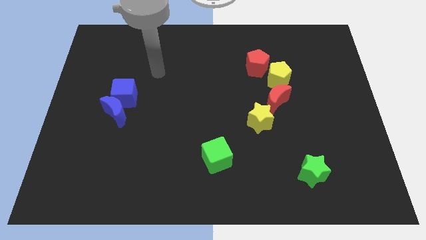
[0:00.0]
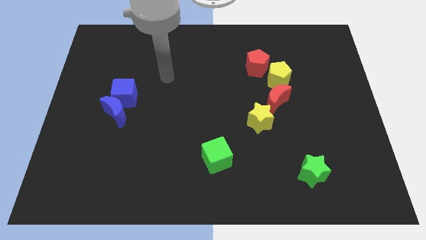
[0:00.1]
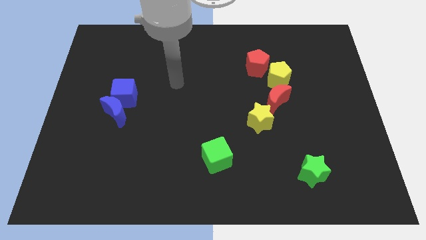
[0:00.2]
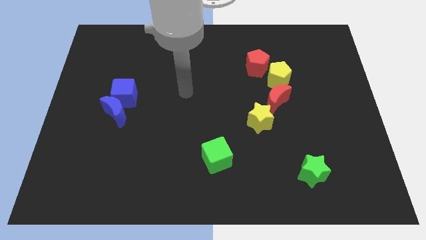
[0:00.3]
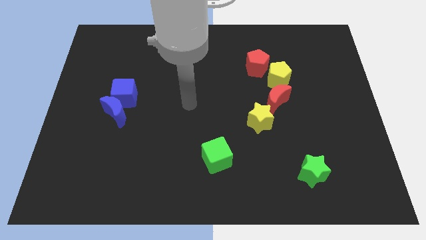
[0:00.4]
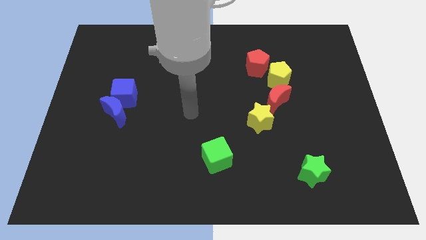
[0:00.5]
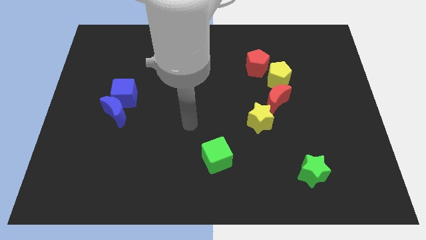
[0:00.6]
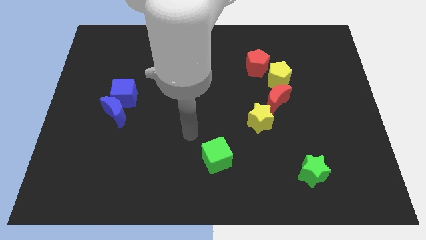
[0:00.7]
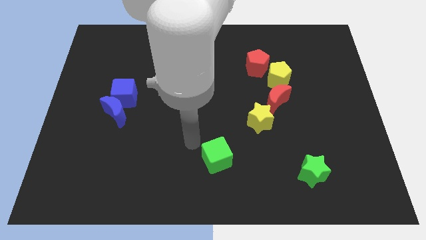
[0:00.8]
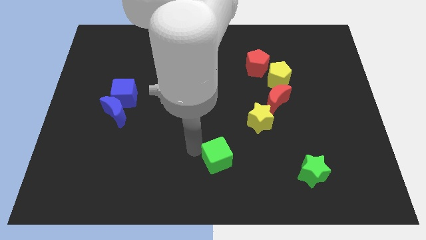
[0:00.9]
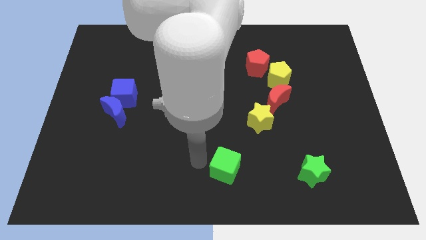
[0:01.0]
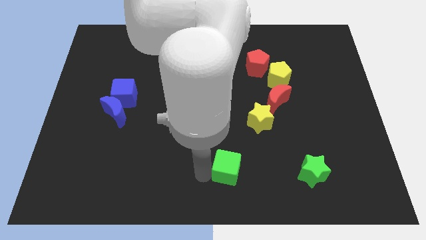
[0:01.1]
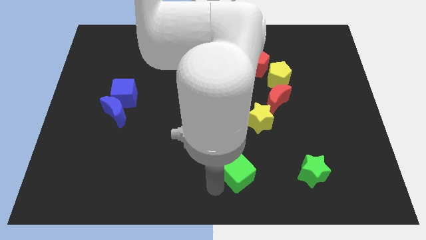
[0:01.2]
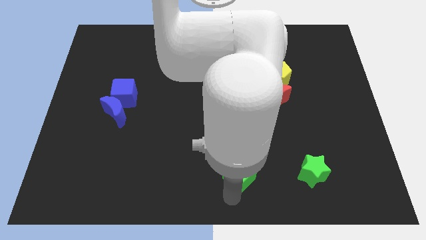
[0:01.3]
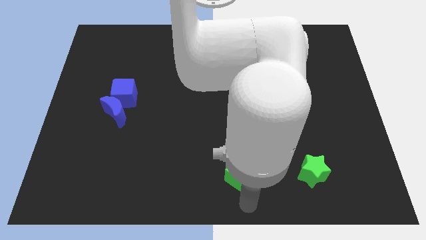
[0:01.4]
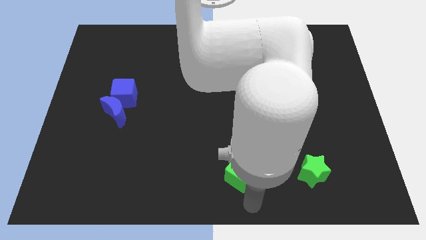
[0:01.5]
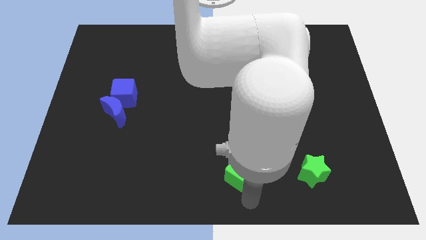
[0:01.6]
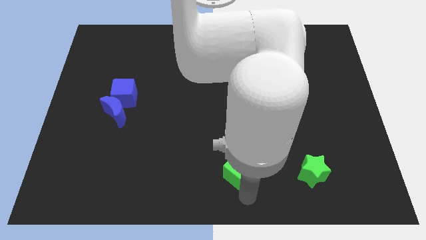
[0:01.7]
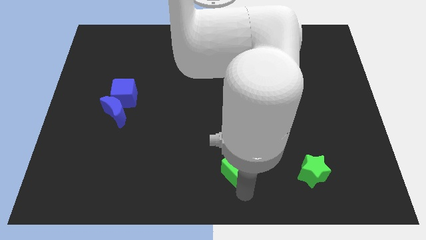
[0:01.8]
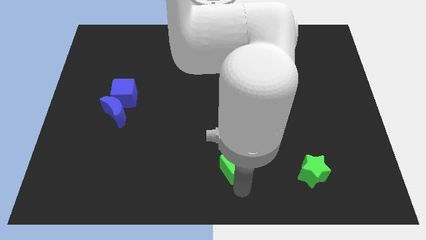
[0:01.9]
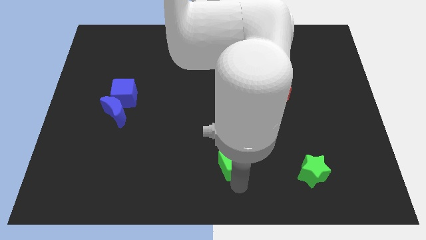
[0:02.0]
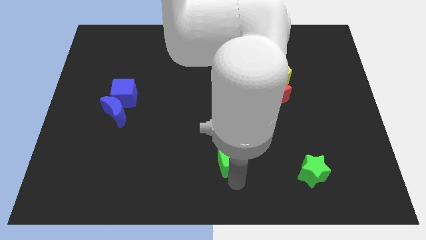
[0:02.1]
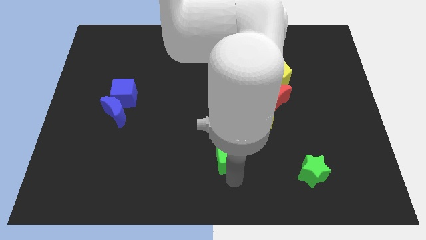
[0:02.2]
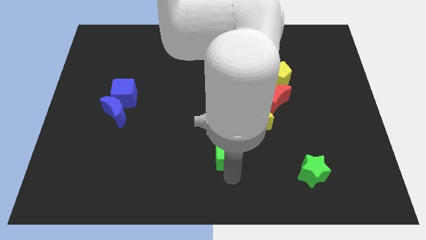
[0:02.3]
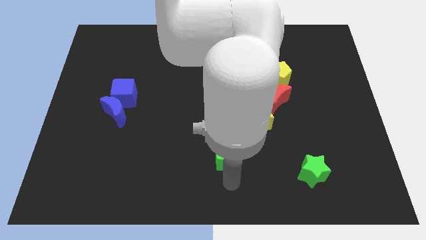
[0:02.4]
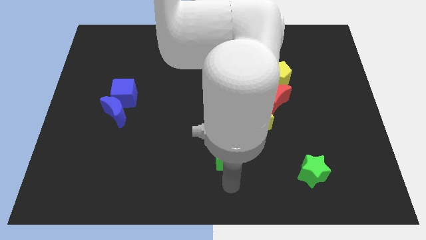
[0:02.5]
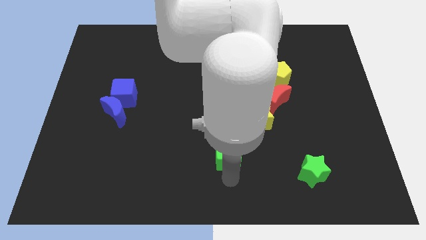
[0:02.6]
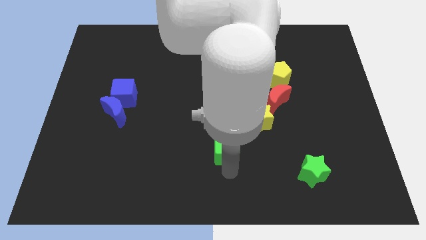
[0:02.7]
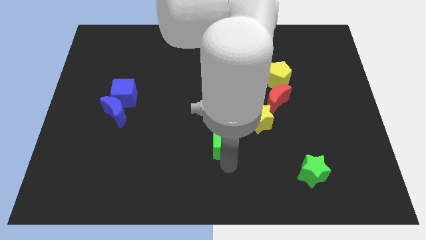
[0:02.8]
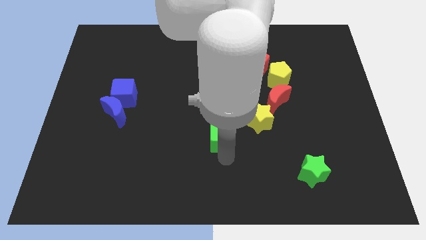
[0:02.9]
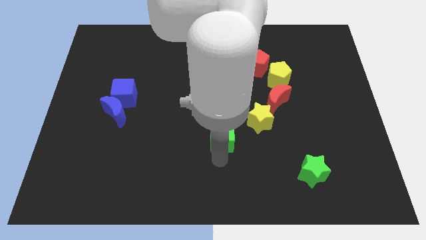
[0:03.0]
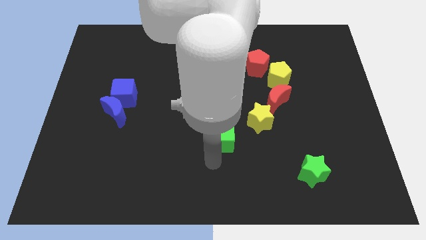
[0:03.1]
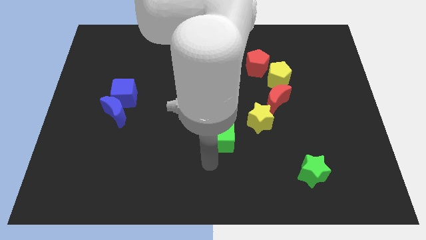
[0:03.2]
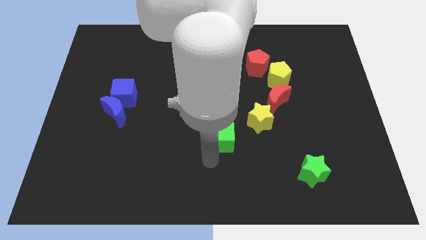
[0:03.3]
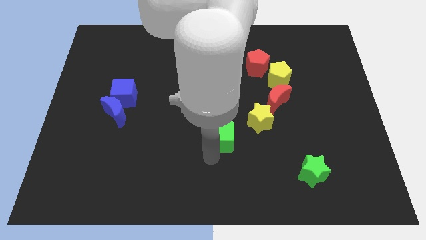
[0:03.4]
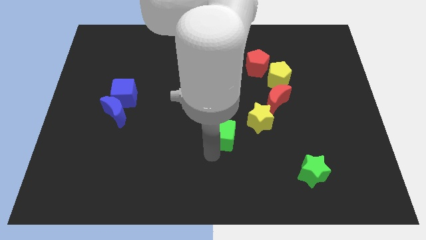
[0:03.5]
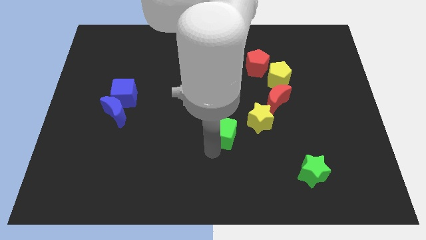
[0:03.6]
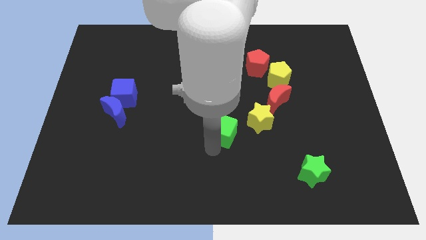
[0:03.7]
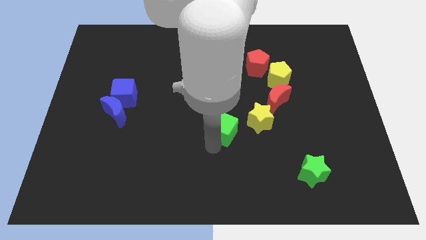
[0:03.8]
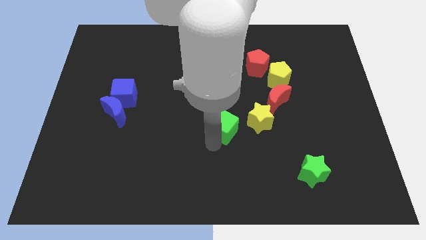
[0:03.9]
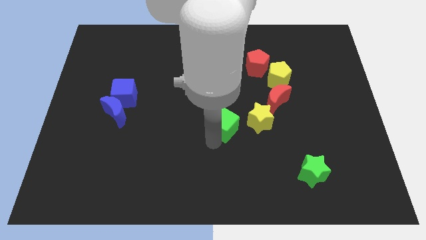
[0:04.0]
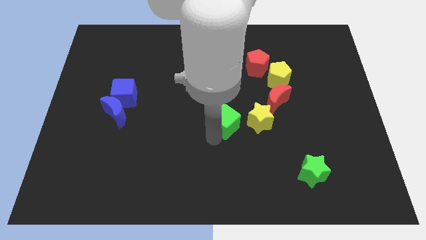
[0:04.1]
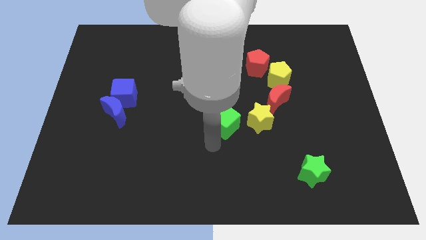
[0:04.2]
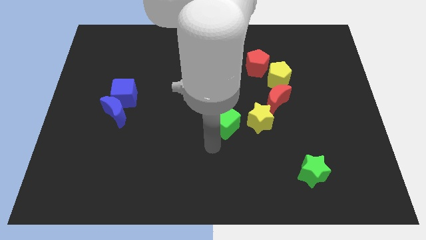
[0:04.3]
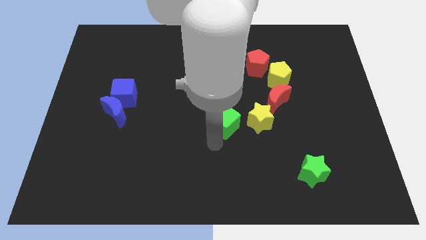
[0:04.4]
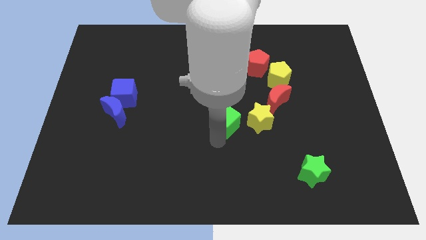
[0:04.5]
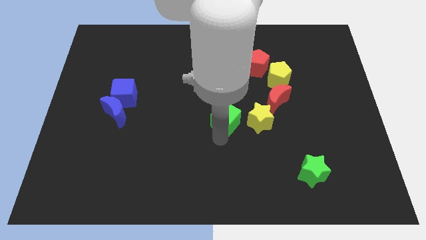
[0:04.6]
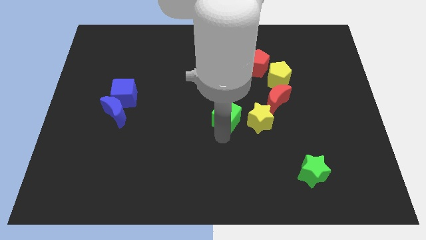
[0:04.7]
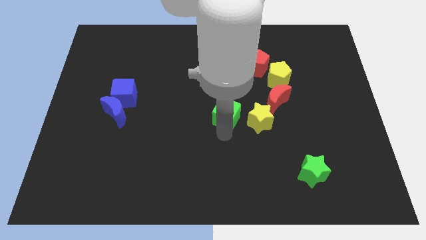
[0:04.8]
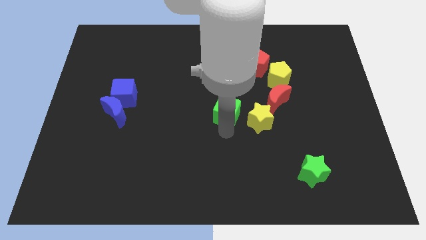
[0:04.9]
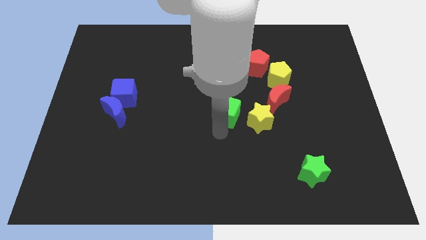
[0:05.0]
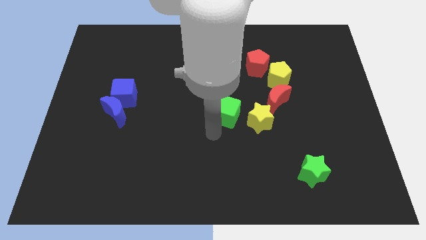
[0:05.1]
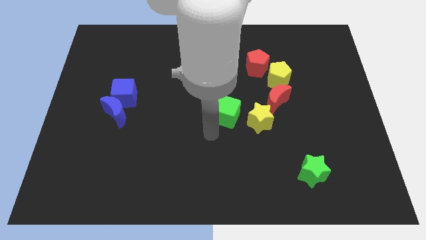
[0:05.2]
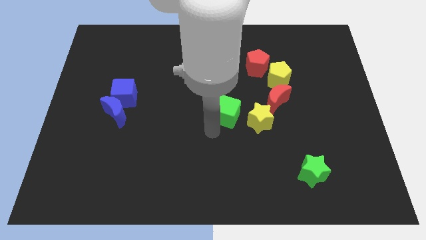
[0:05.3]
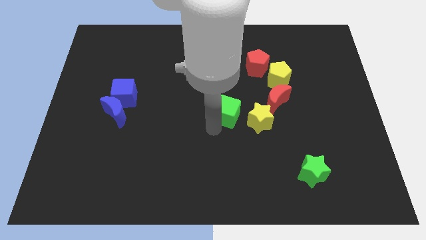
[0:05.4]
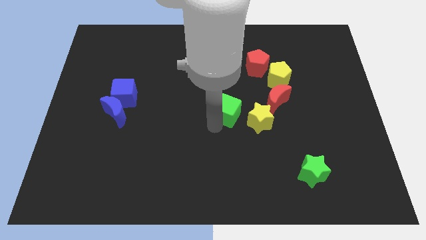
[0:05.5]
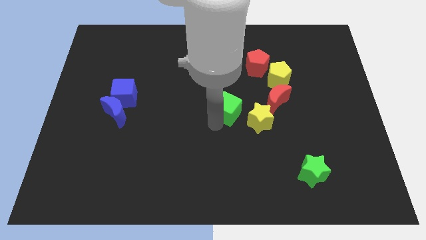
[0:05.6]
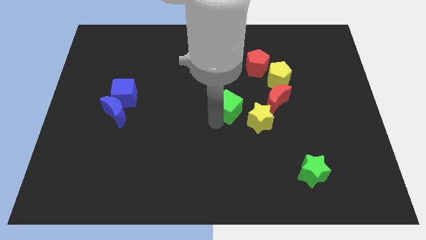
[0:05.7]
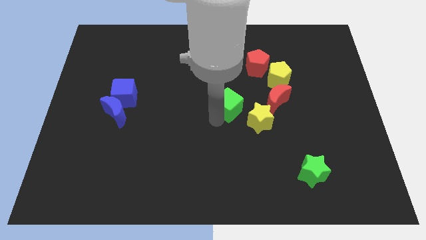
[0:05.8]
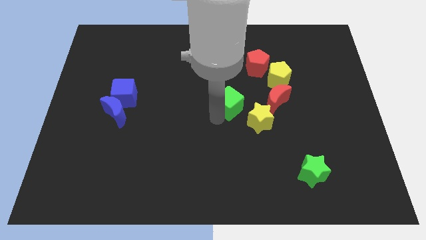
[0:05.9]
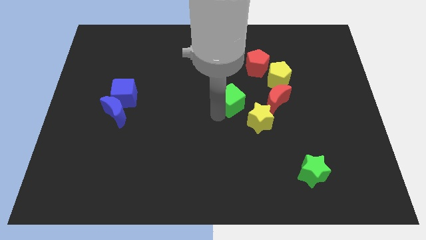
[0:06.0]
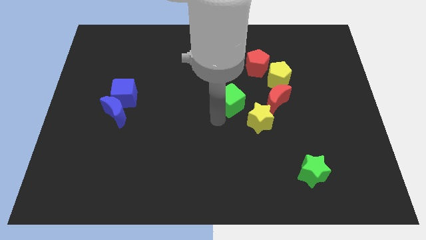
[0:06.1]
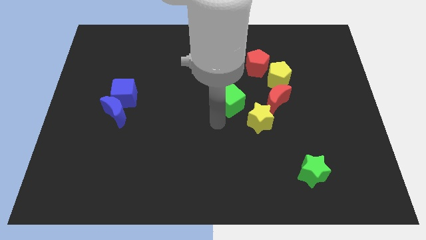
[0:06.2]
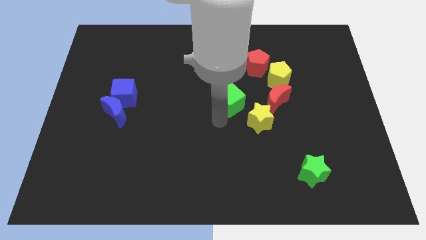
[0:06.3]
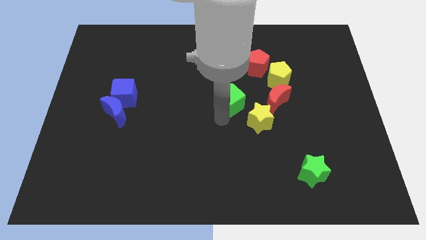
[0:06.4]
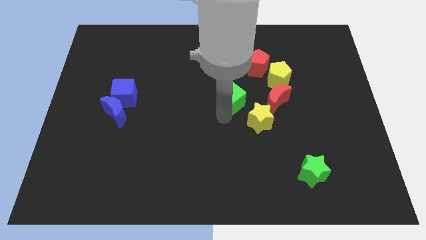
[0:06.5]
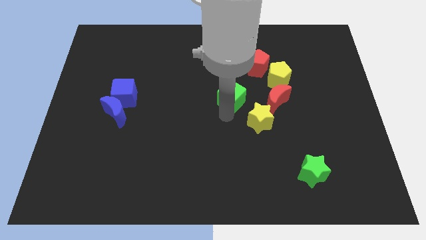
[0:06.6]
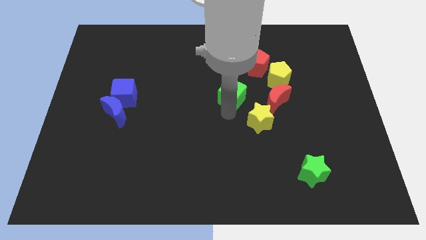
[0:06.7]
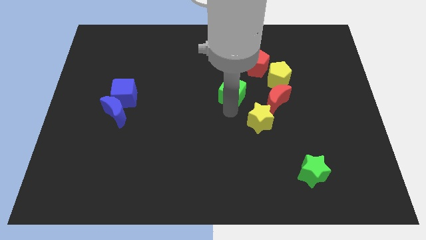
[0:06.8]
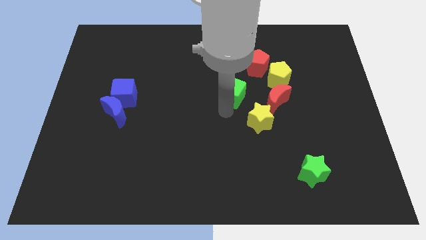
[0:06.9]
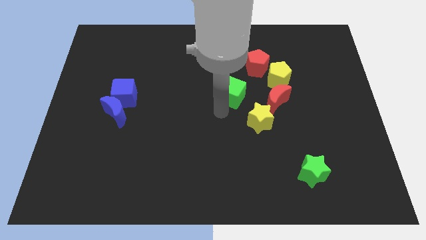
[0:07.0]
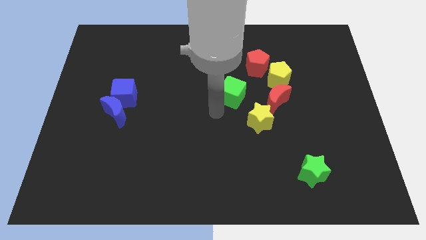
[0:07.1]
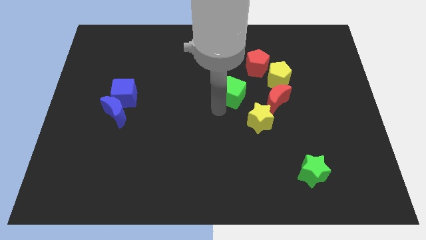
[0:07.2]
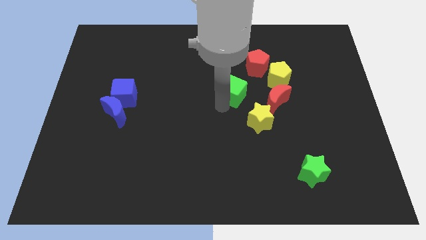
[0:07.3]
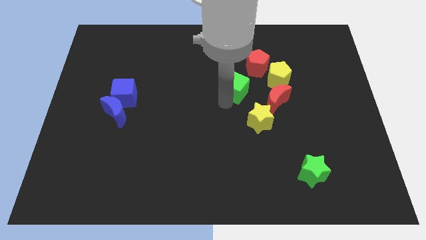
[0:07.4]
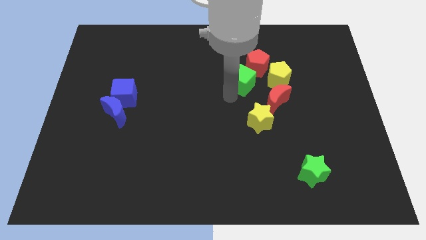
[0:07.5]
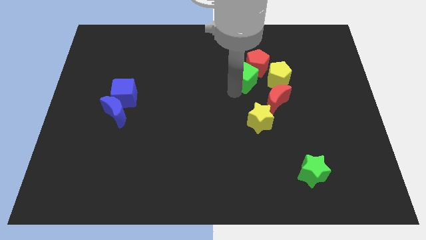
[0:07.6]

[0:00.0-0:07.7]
push the green cube to the red pentagon
